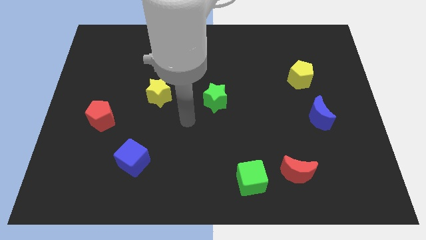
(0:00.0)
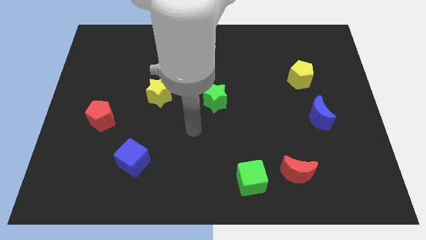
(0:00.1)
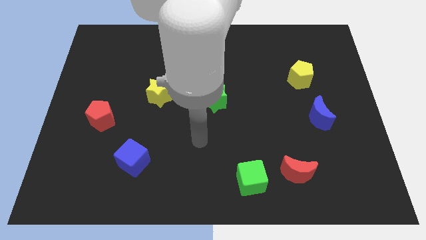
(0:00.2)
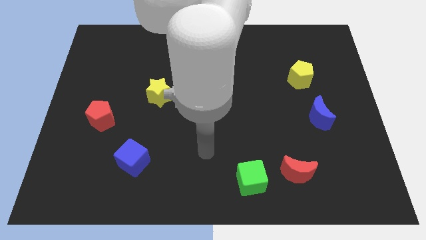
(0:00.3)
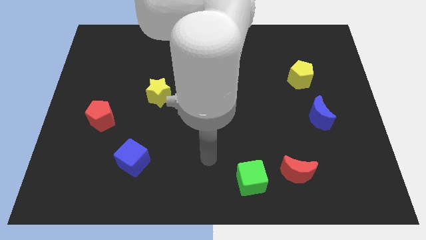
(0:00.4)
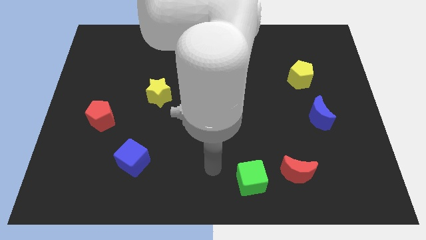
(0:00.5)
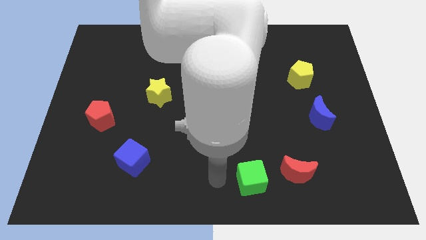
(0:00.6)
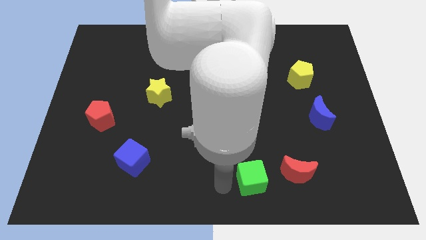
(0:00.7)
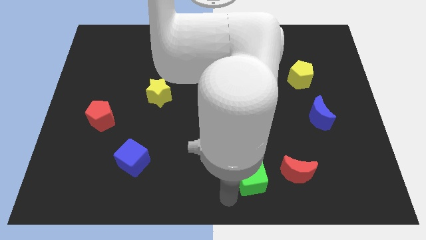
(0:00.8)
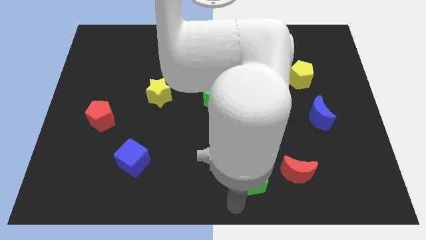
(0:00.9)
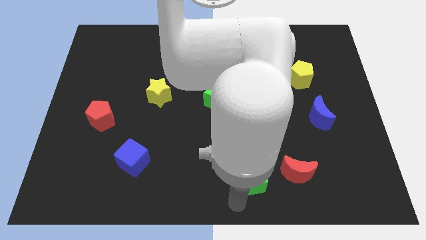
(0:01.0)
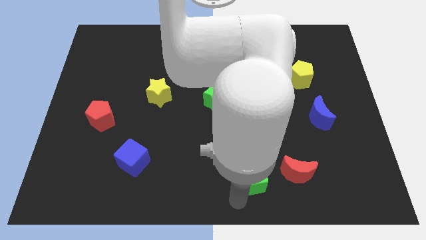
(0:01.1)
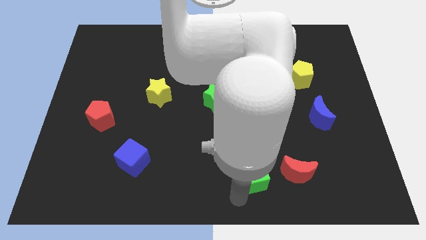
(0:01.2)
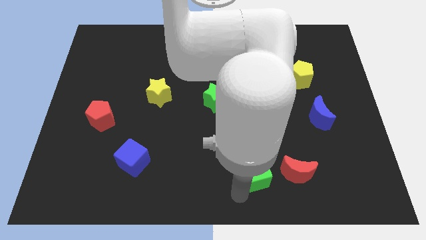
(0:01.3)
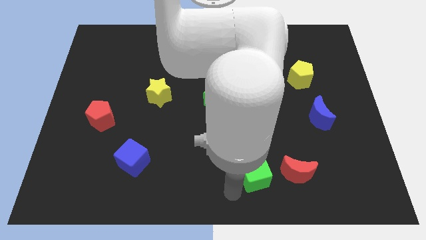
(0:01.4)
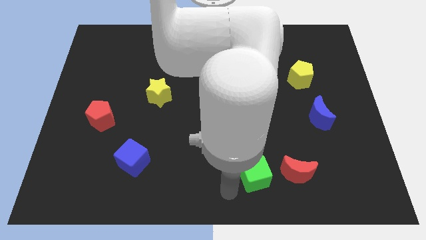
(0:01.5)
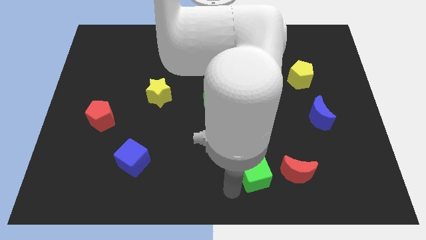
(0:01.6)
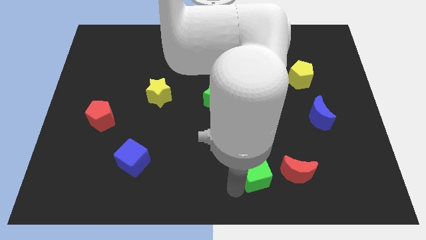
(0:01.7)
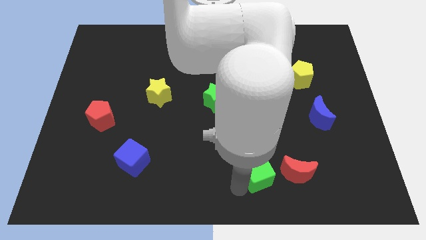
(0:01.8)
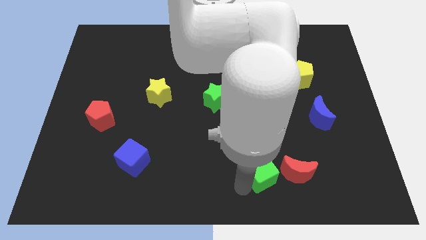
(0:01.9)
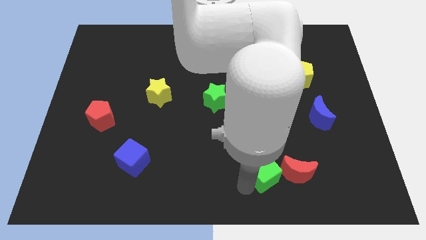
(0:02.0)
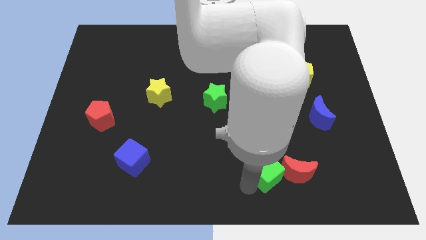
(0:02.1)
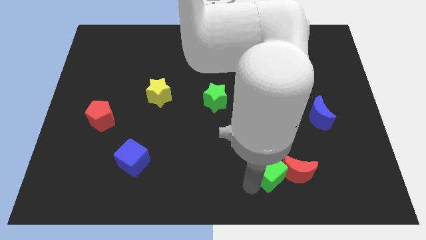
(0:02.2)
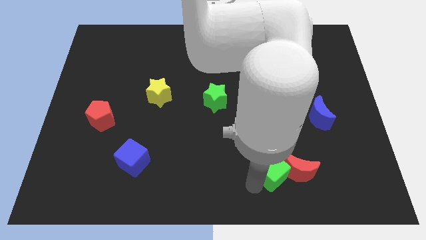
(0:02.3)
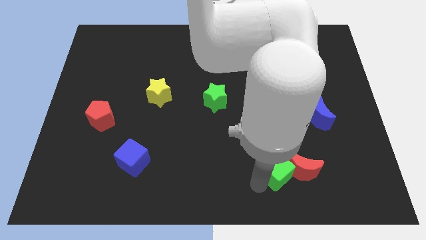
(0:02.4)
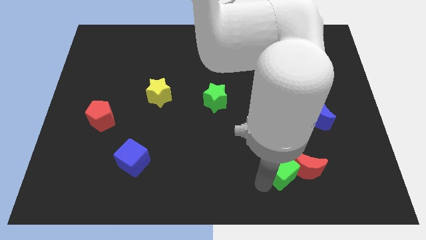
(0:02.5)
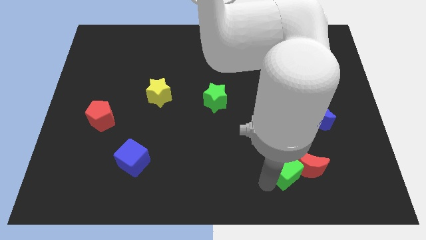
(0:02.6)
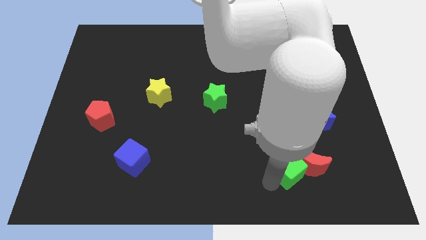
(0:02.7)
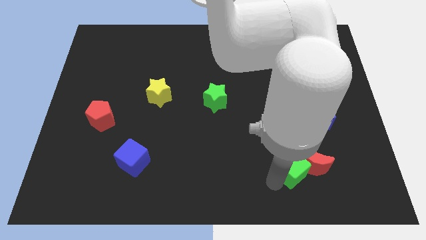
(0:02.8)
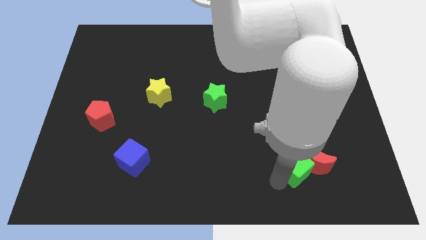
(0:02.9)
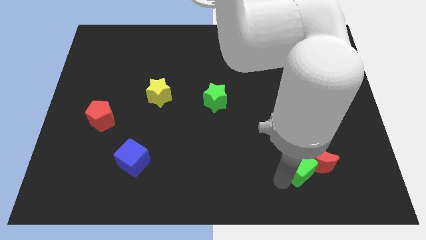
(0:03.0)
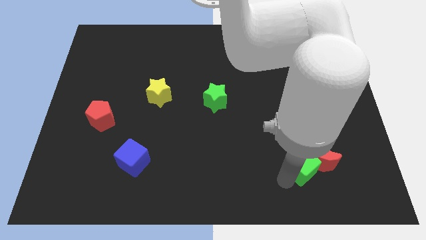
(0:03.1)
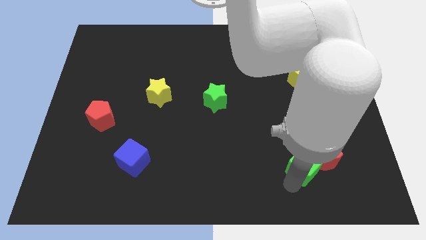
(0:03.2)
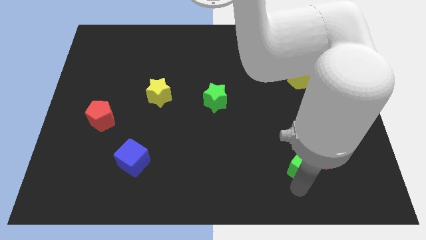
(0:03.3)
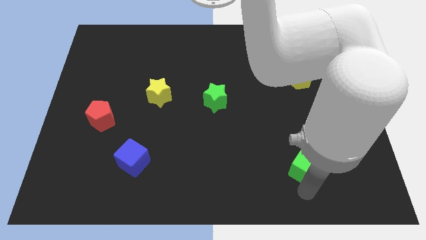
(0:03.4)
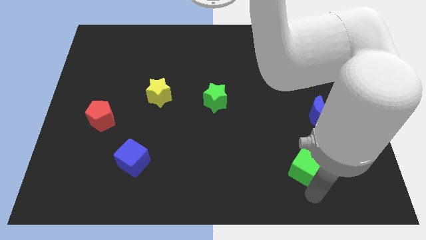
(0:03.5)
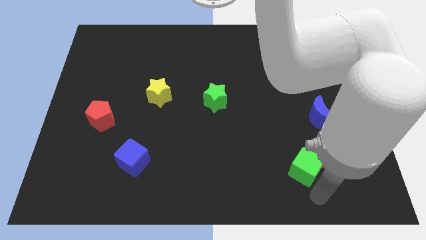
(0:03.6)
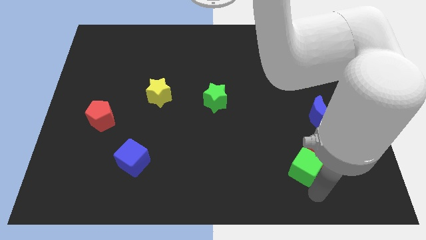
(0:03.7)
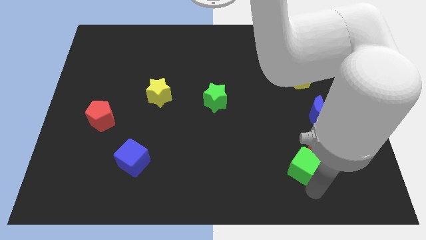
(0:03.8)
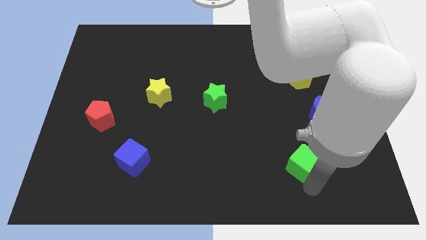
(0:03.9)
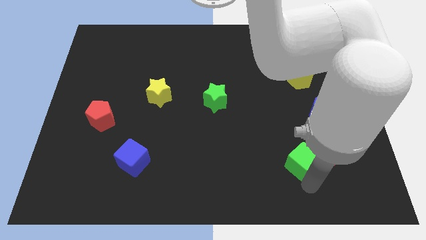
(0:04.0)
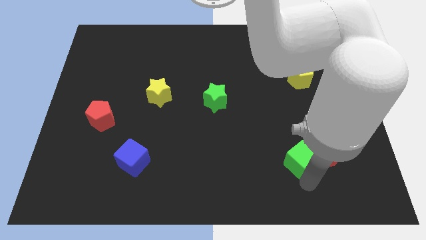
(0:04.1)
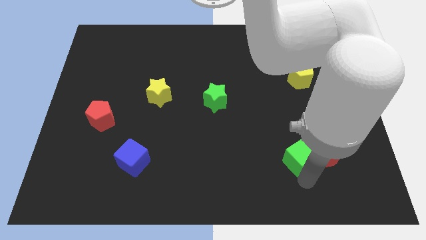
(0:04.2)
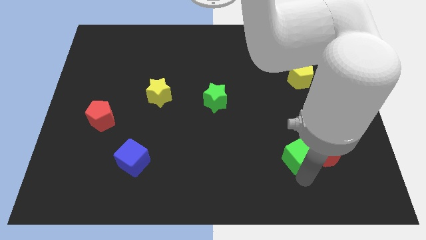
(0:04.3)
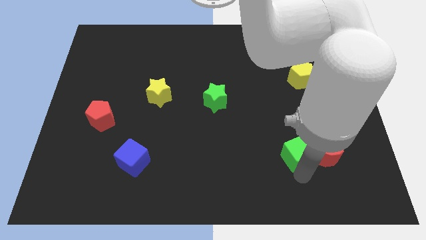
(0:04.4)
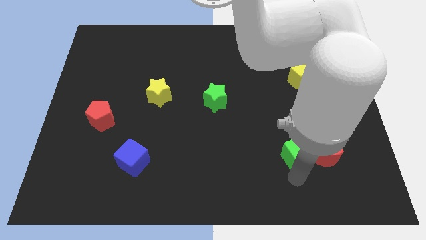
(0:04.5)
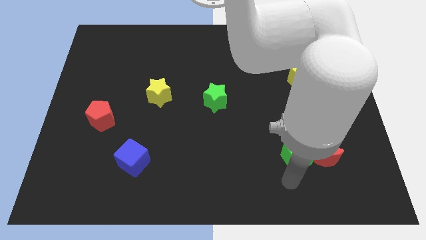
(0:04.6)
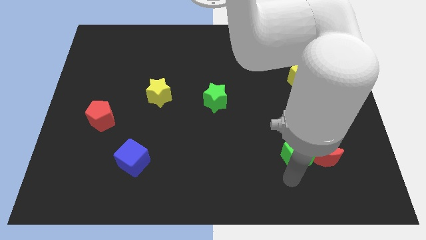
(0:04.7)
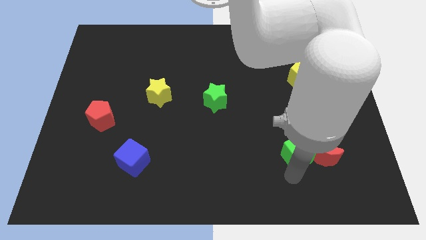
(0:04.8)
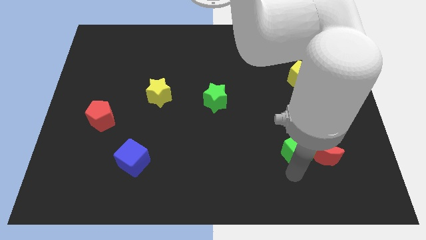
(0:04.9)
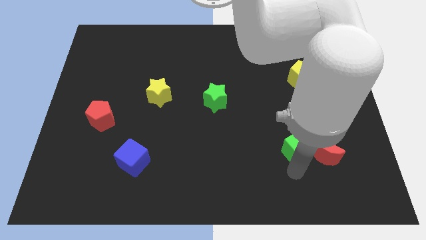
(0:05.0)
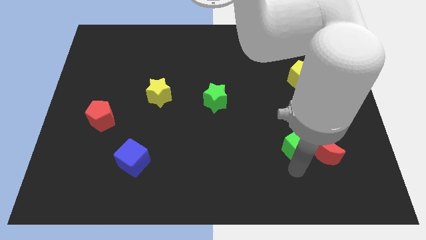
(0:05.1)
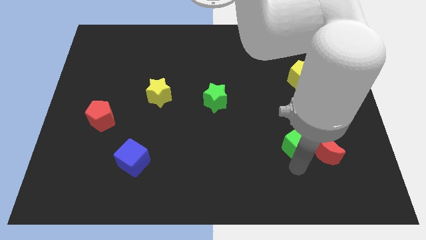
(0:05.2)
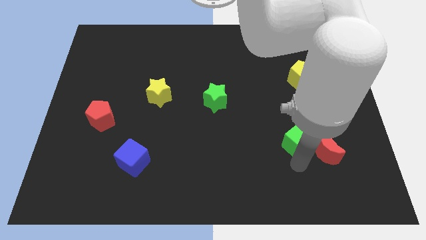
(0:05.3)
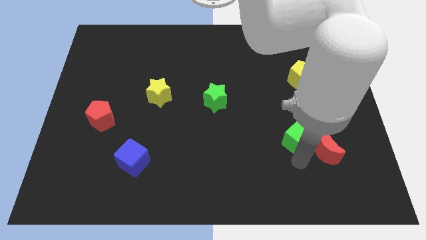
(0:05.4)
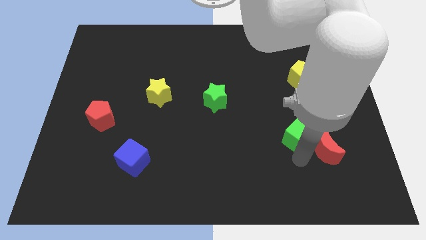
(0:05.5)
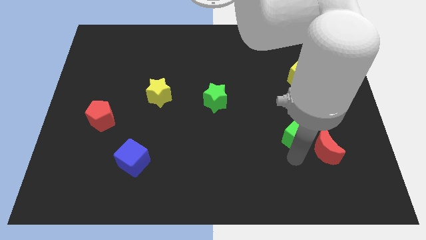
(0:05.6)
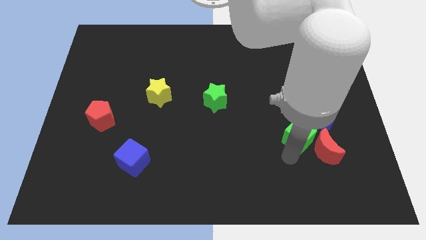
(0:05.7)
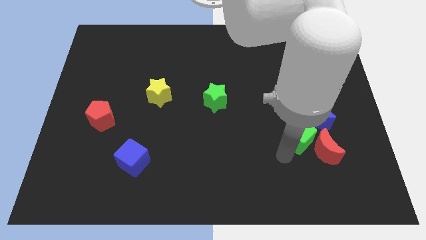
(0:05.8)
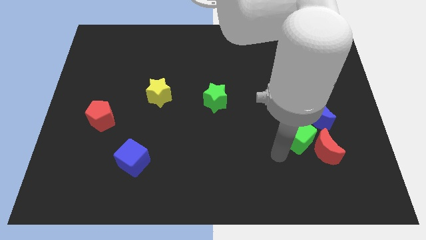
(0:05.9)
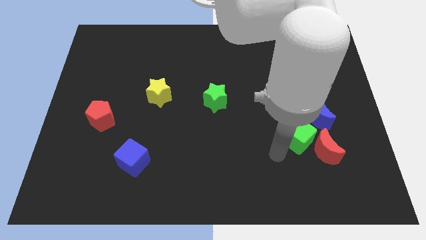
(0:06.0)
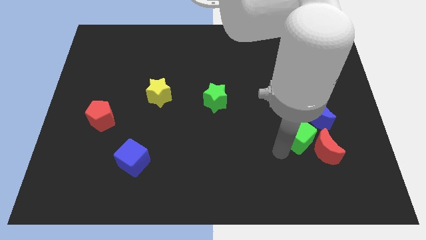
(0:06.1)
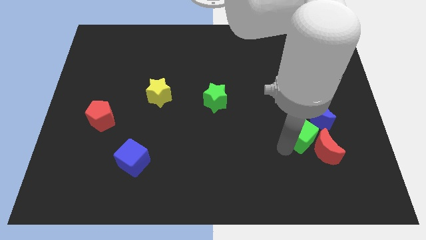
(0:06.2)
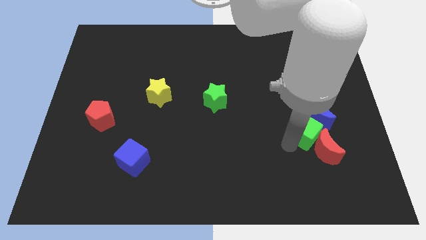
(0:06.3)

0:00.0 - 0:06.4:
move the green cube towards the blue moon

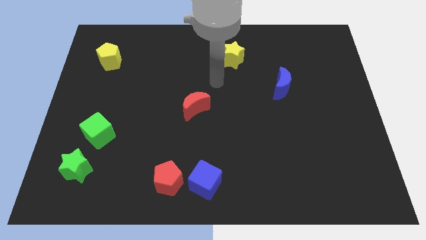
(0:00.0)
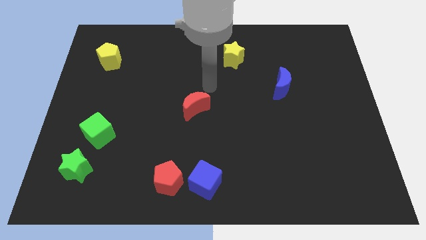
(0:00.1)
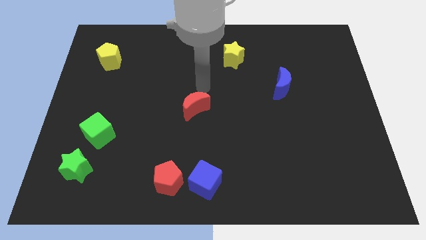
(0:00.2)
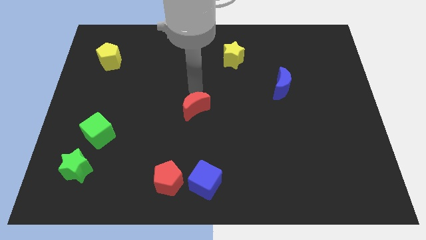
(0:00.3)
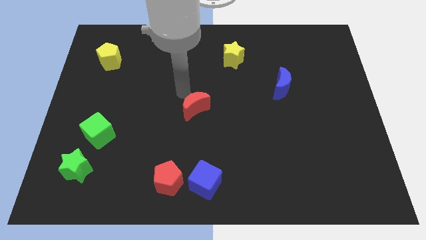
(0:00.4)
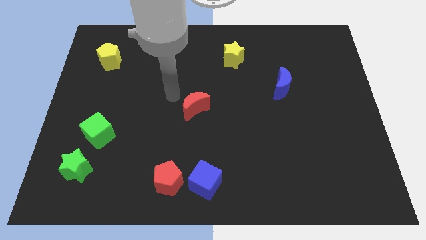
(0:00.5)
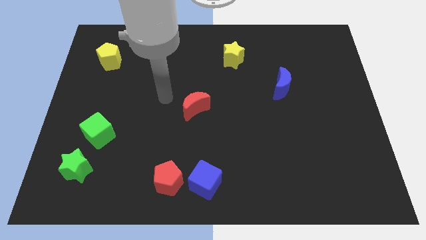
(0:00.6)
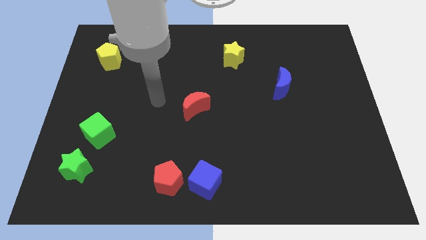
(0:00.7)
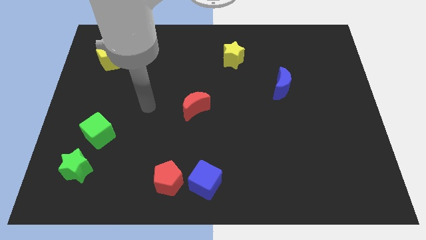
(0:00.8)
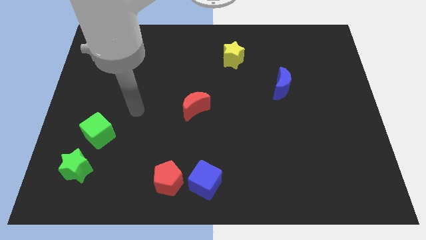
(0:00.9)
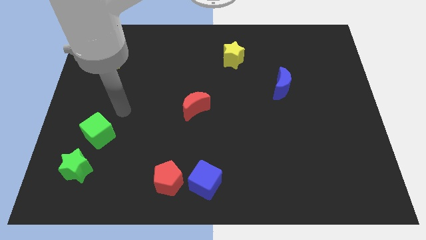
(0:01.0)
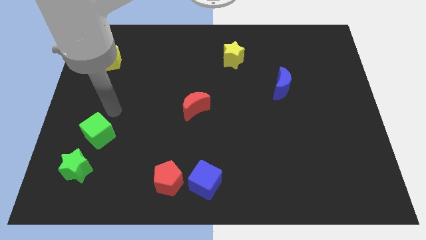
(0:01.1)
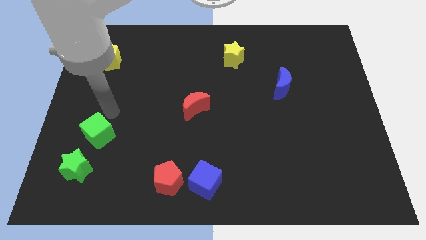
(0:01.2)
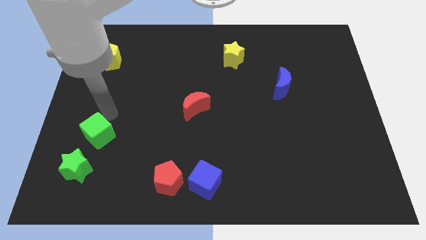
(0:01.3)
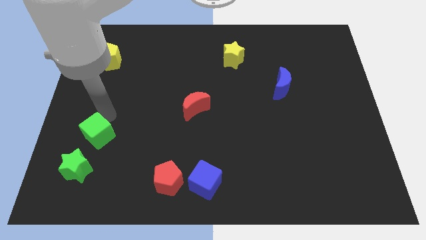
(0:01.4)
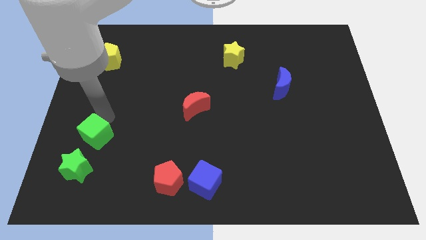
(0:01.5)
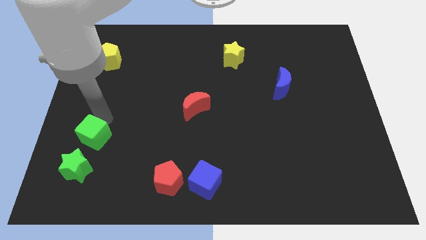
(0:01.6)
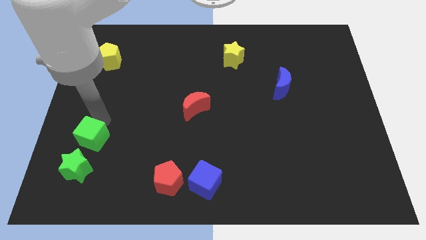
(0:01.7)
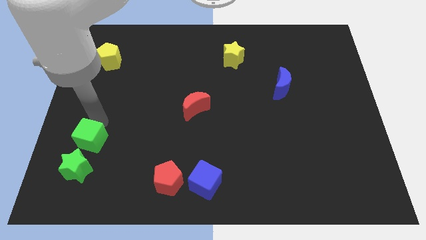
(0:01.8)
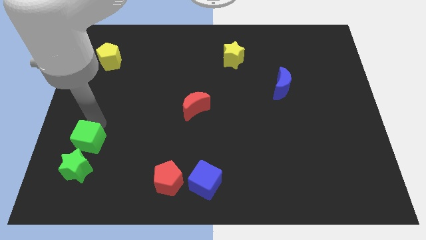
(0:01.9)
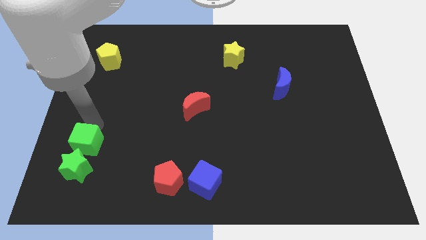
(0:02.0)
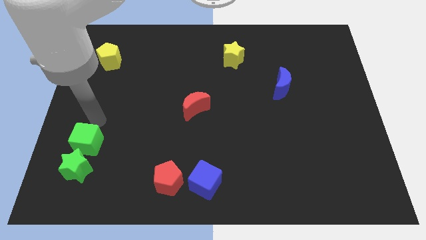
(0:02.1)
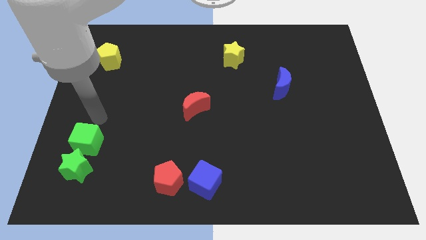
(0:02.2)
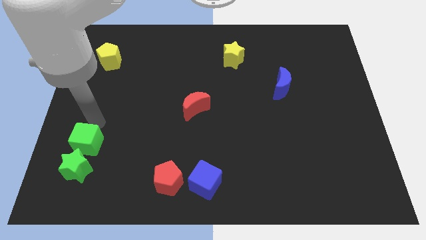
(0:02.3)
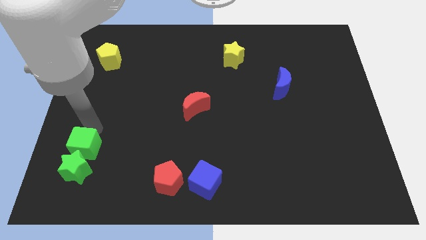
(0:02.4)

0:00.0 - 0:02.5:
put the green cube to the green star
